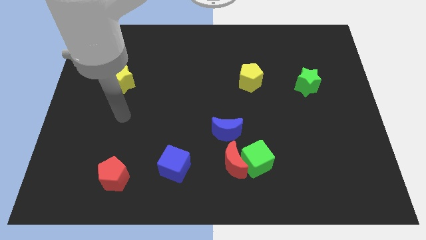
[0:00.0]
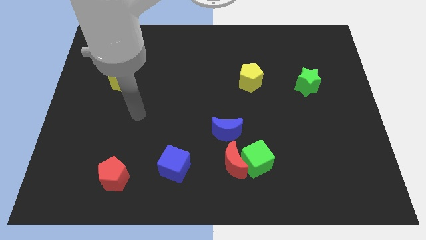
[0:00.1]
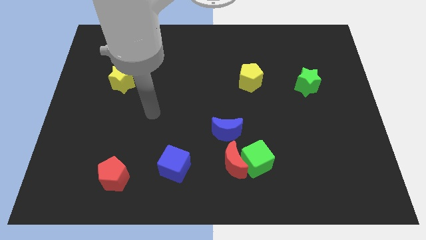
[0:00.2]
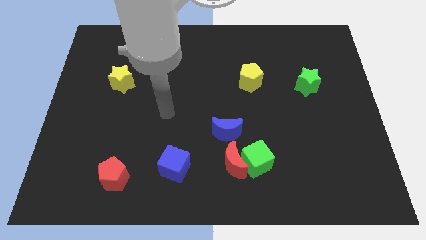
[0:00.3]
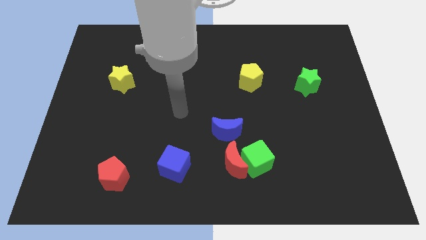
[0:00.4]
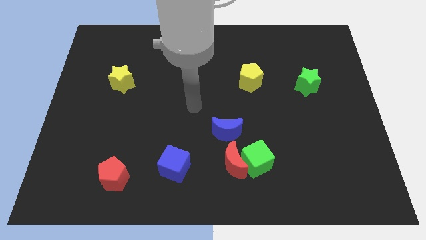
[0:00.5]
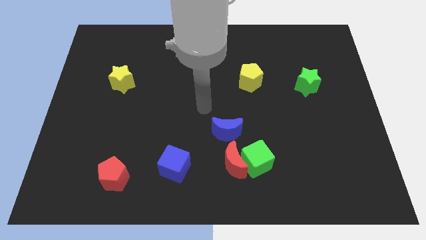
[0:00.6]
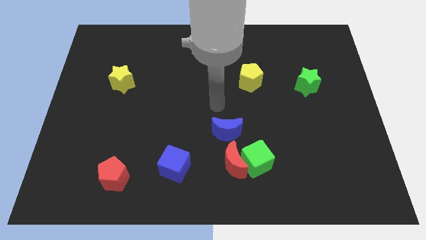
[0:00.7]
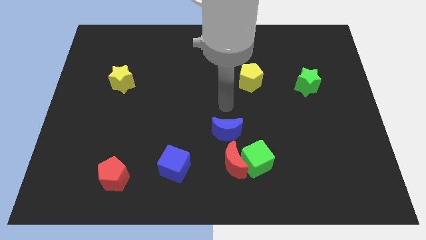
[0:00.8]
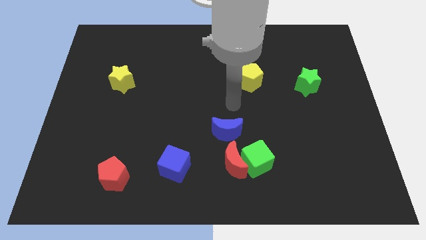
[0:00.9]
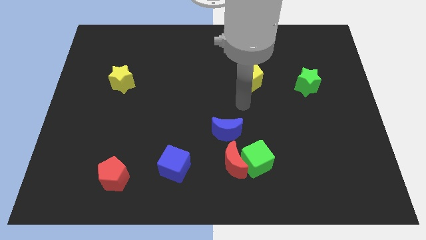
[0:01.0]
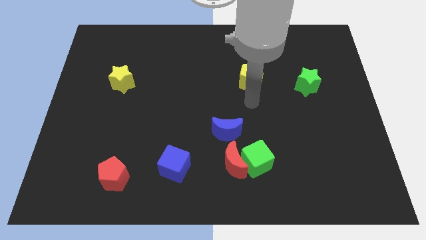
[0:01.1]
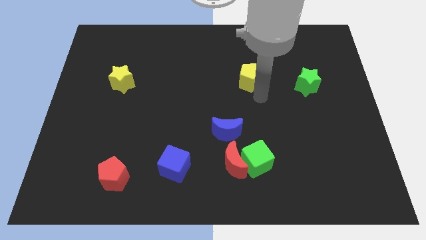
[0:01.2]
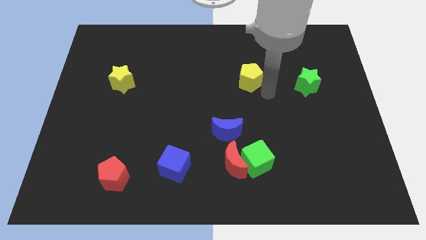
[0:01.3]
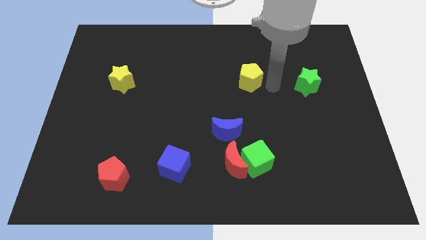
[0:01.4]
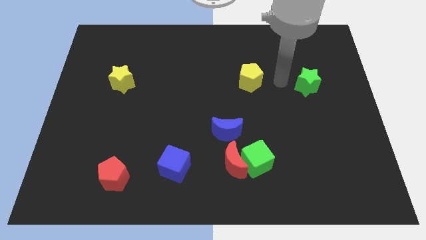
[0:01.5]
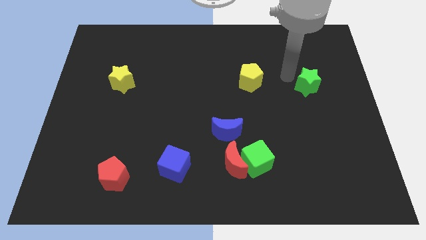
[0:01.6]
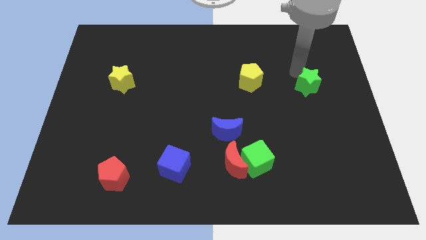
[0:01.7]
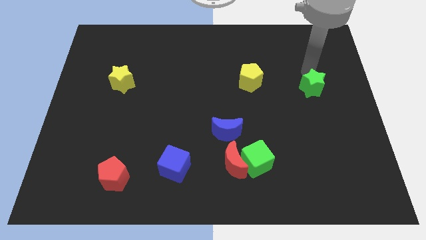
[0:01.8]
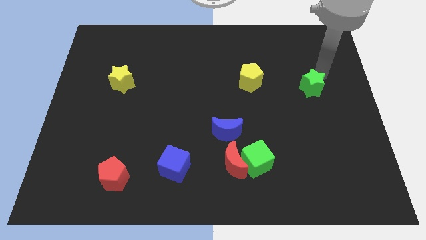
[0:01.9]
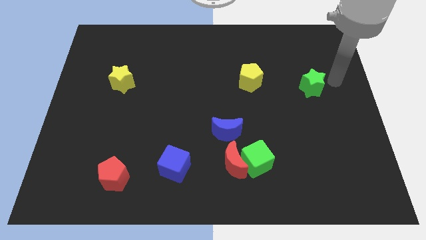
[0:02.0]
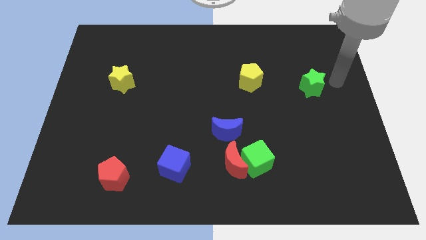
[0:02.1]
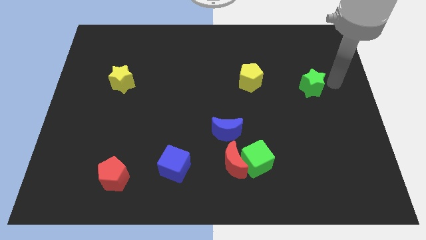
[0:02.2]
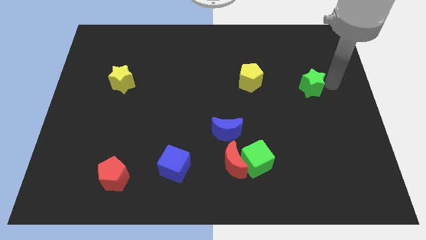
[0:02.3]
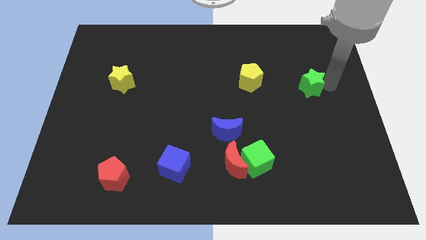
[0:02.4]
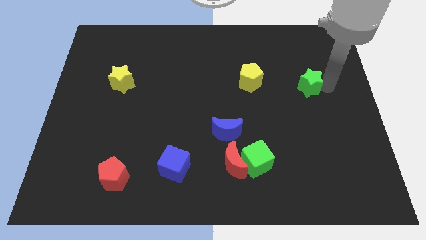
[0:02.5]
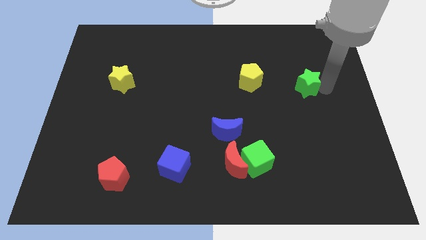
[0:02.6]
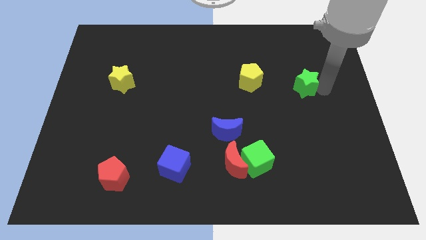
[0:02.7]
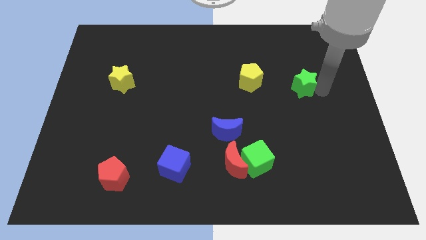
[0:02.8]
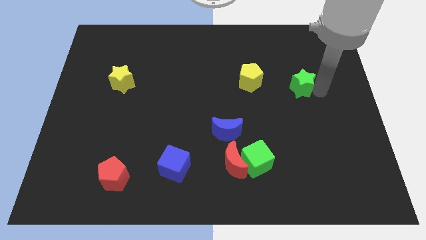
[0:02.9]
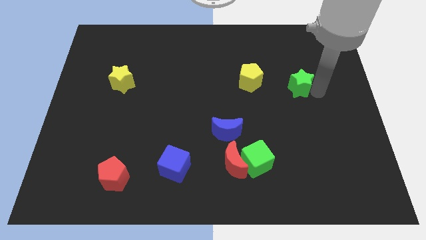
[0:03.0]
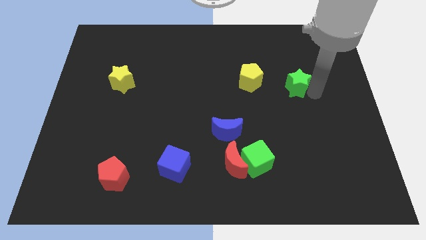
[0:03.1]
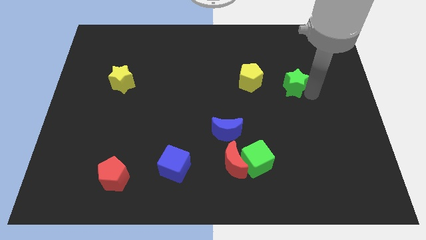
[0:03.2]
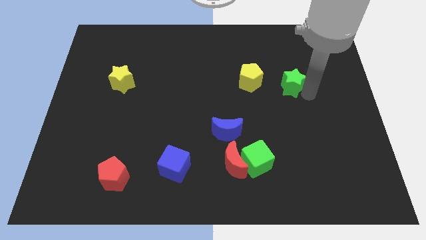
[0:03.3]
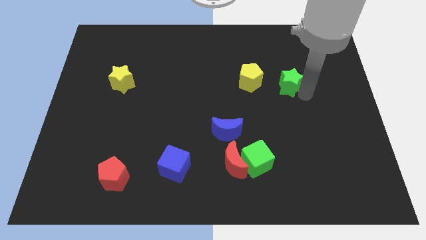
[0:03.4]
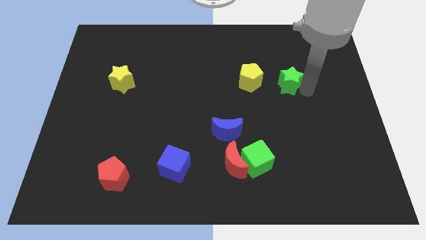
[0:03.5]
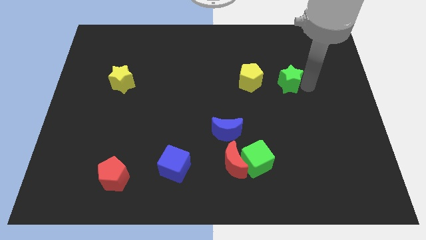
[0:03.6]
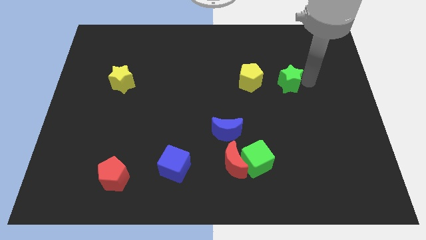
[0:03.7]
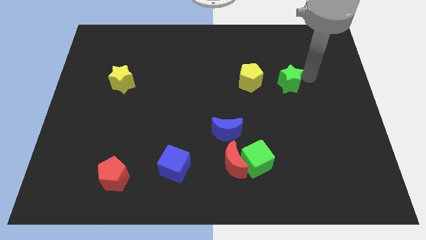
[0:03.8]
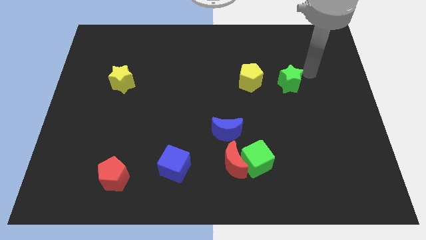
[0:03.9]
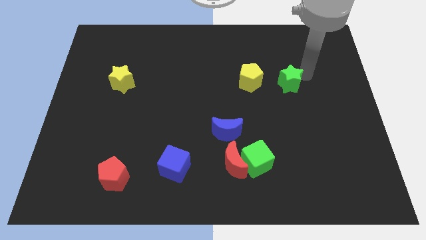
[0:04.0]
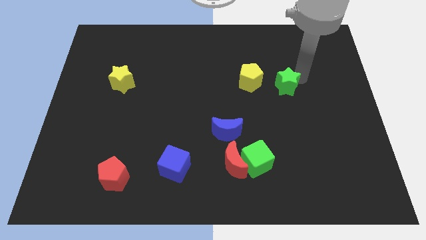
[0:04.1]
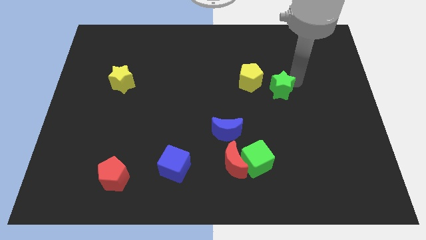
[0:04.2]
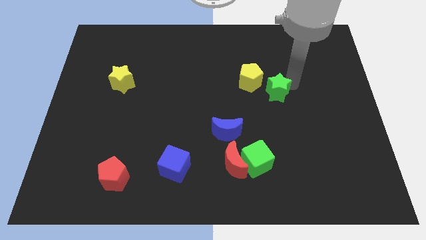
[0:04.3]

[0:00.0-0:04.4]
move the green star to the left a little bit

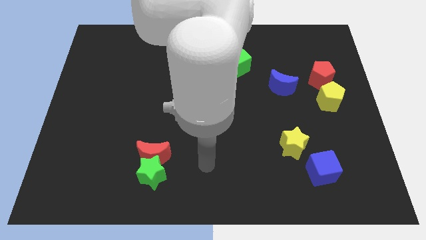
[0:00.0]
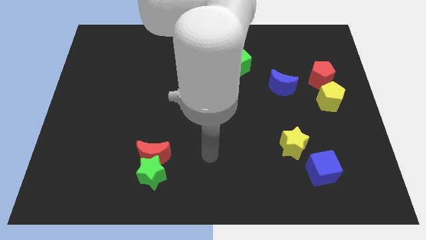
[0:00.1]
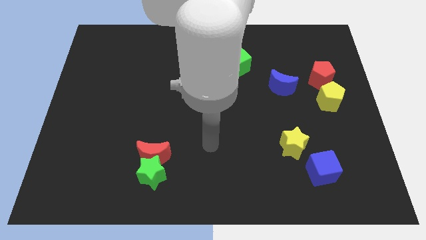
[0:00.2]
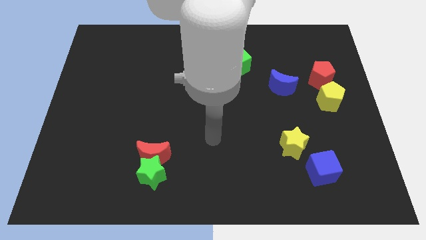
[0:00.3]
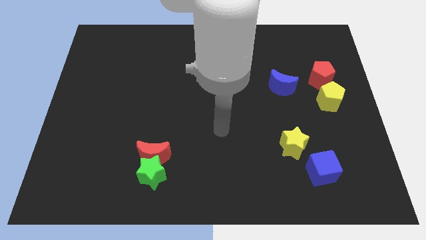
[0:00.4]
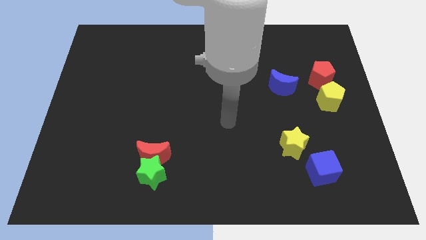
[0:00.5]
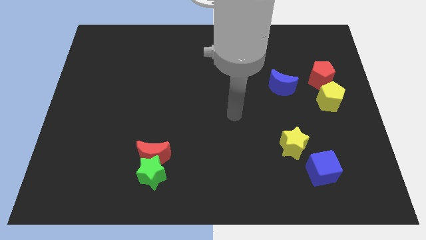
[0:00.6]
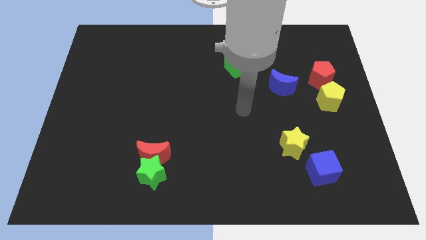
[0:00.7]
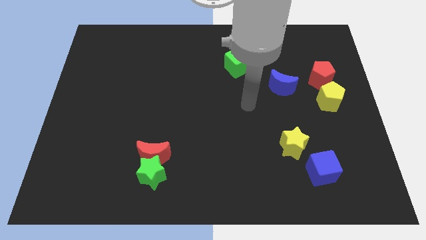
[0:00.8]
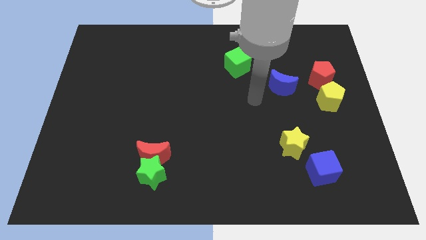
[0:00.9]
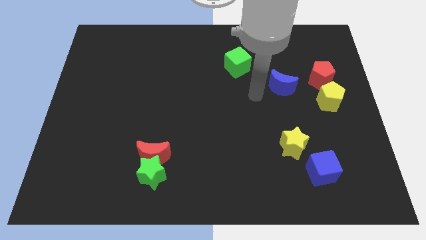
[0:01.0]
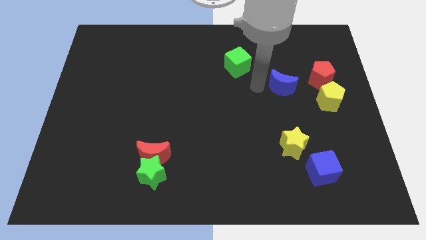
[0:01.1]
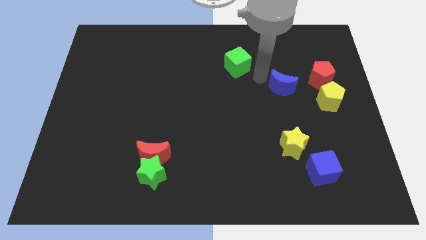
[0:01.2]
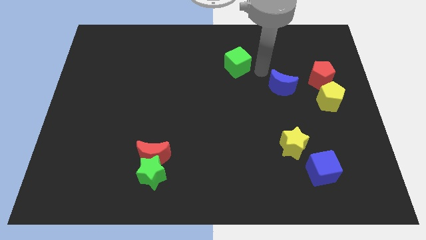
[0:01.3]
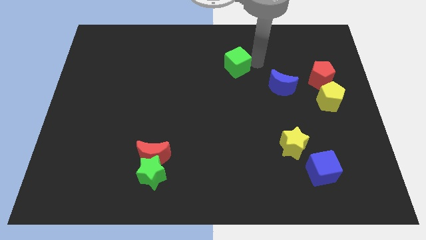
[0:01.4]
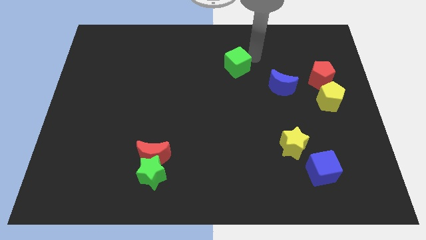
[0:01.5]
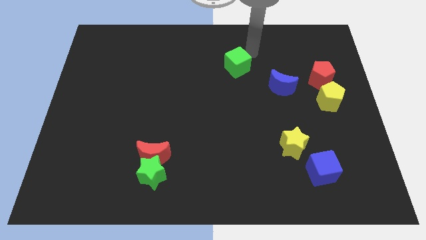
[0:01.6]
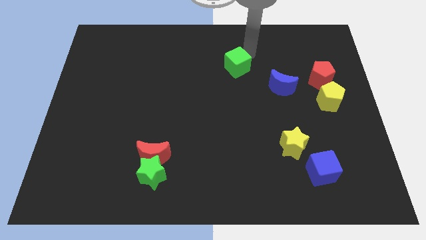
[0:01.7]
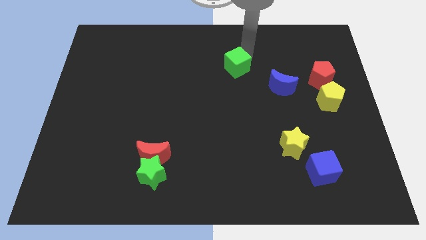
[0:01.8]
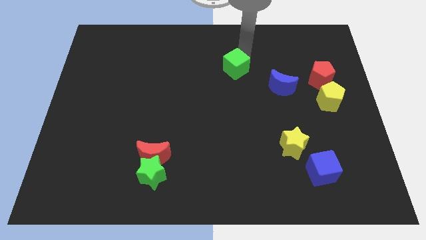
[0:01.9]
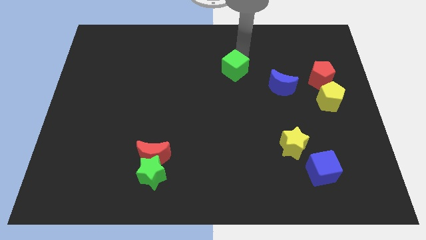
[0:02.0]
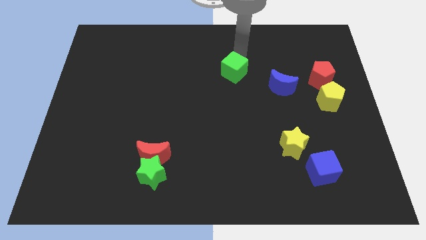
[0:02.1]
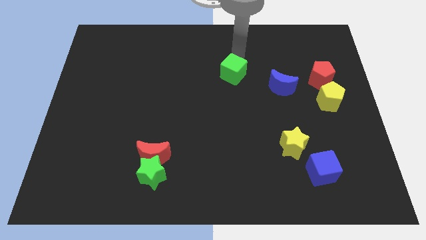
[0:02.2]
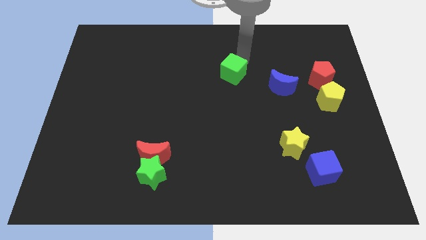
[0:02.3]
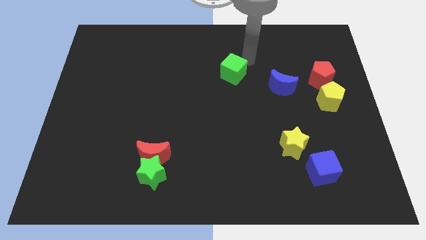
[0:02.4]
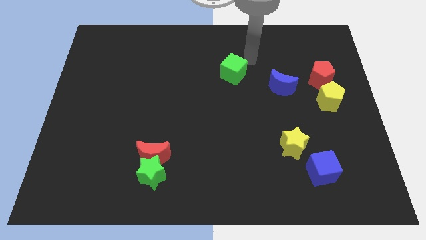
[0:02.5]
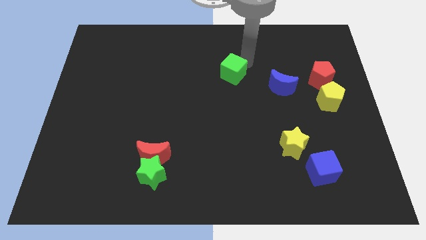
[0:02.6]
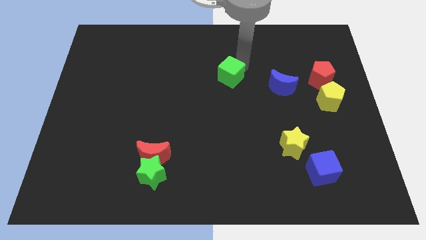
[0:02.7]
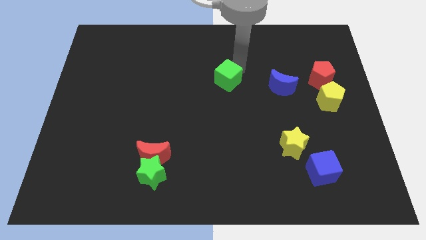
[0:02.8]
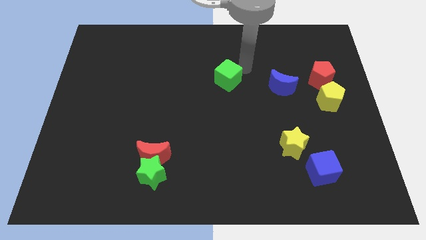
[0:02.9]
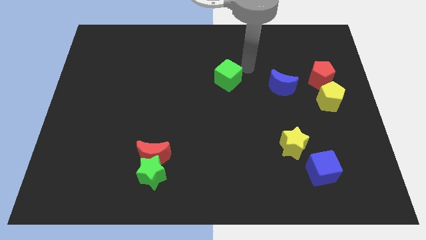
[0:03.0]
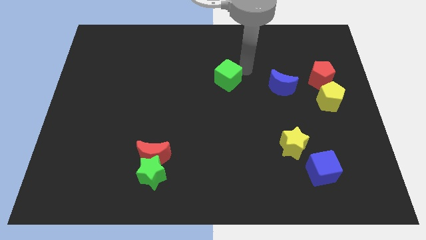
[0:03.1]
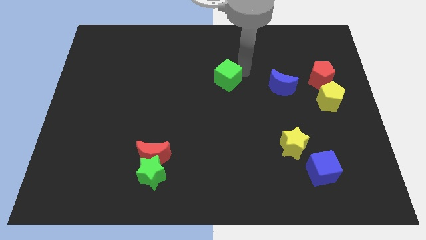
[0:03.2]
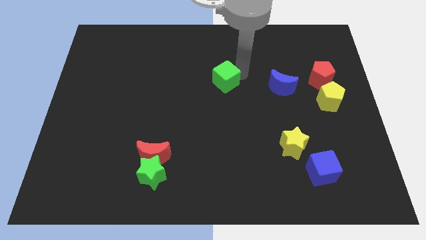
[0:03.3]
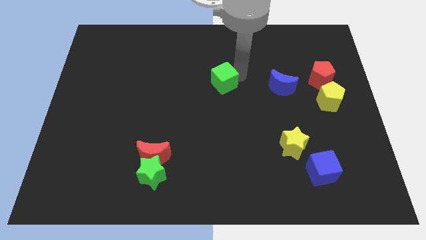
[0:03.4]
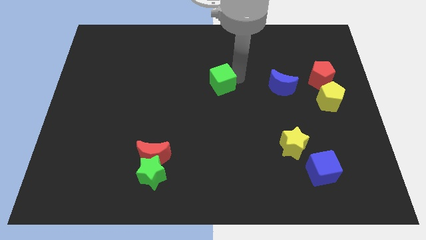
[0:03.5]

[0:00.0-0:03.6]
slightly move the green cube diagonally downwards and left
